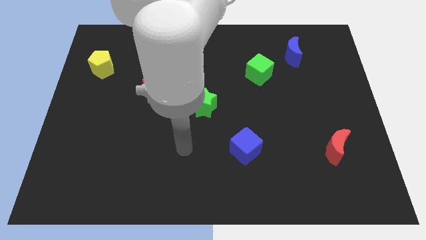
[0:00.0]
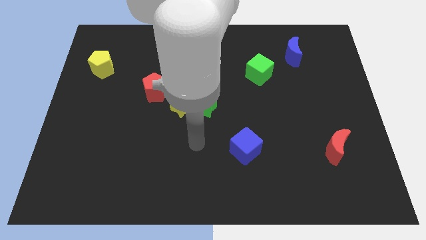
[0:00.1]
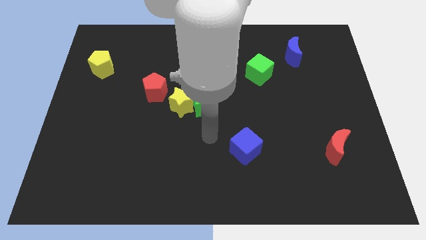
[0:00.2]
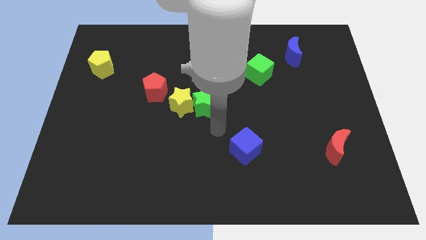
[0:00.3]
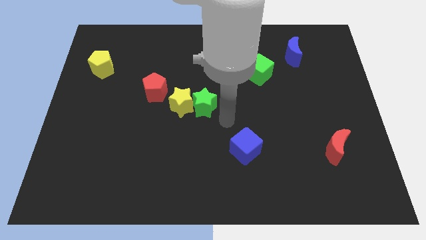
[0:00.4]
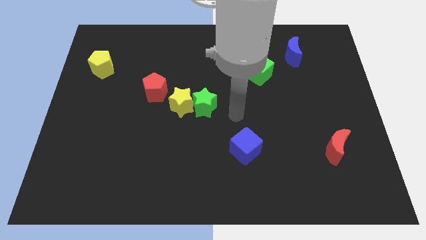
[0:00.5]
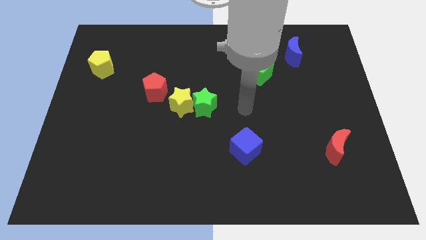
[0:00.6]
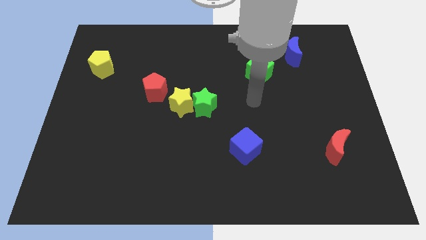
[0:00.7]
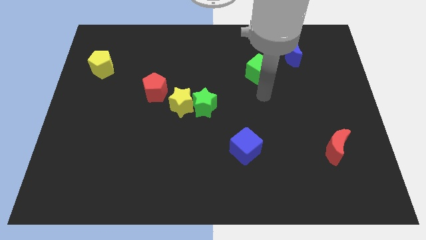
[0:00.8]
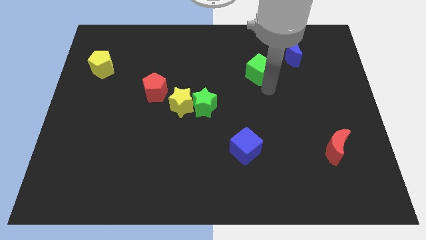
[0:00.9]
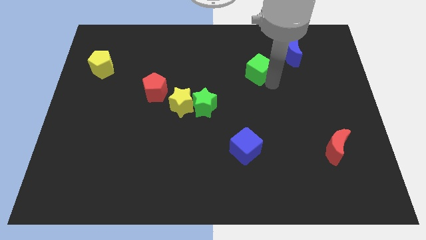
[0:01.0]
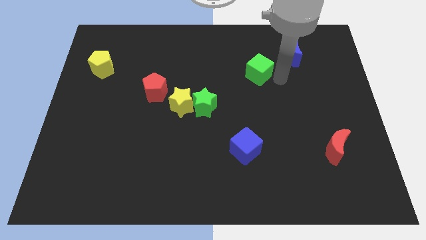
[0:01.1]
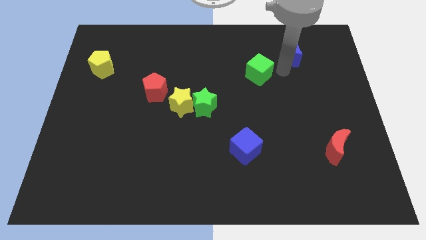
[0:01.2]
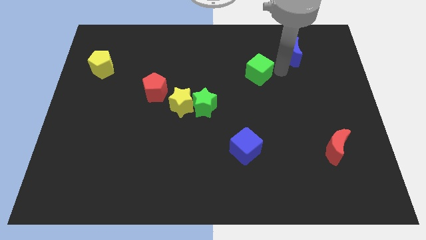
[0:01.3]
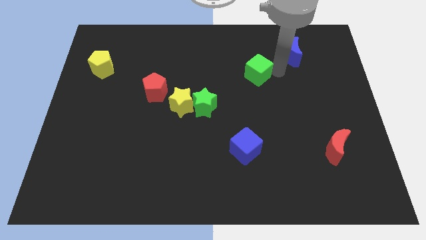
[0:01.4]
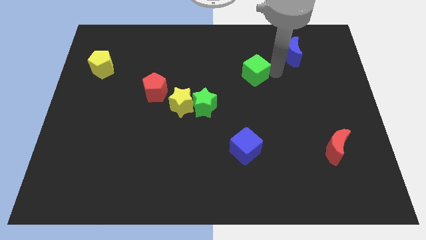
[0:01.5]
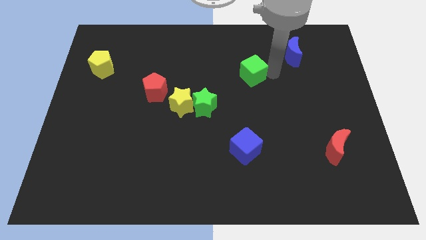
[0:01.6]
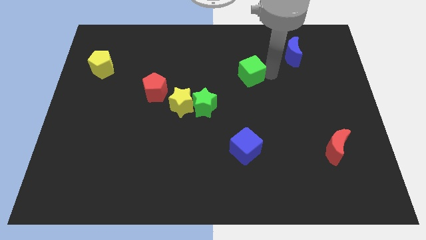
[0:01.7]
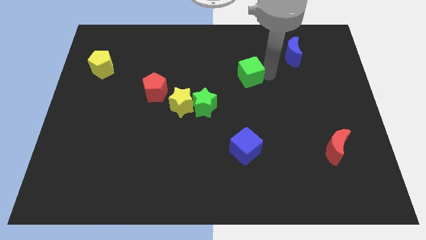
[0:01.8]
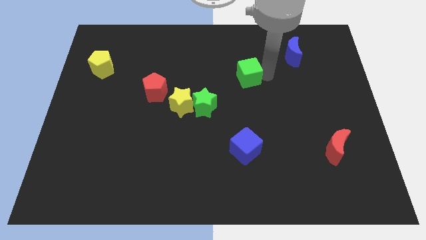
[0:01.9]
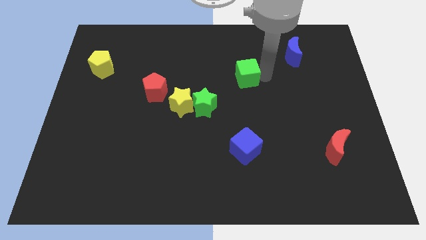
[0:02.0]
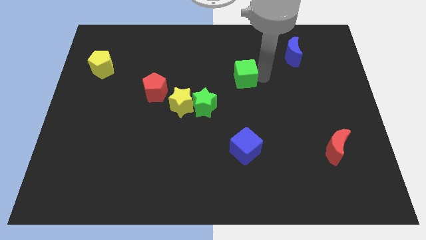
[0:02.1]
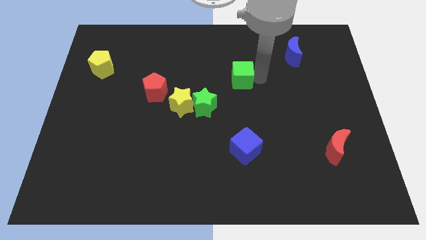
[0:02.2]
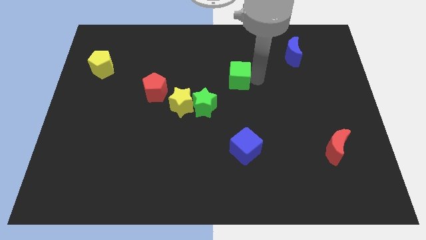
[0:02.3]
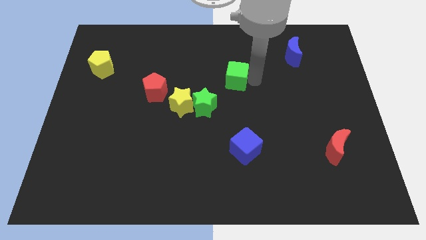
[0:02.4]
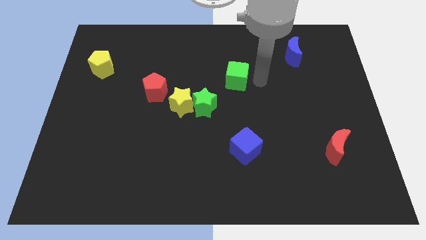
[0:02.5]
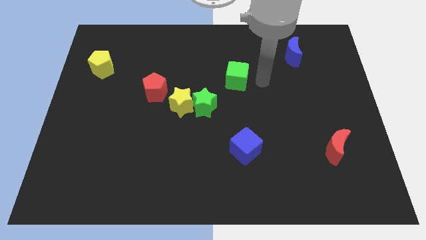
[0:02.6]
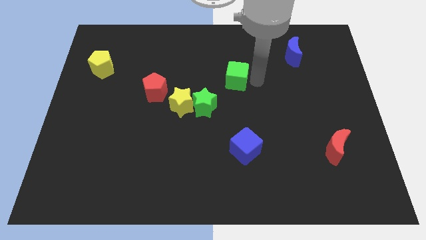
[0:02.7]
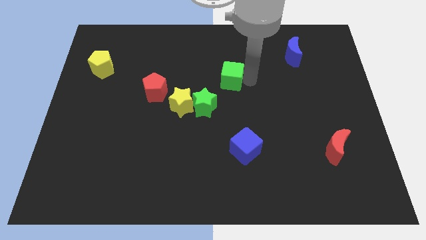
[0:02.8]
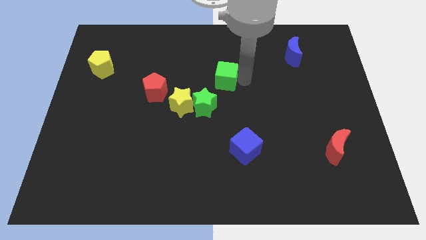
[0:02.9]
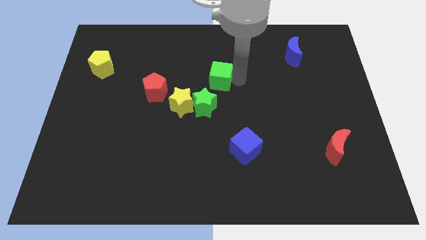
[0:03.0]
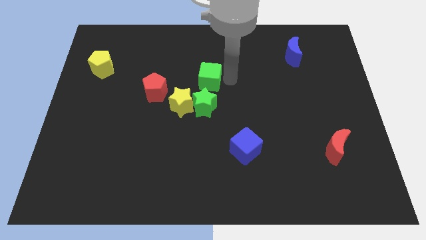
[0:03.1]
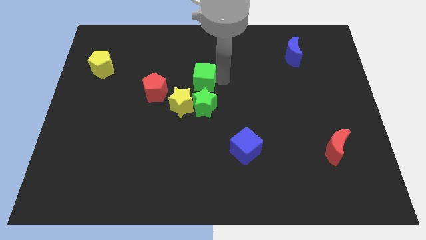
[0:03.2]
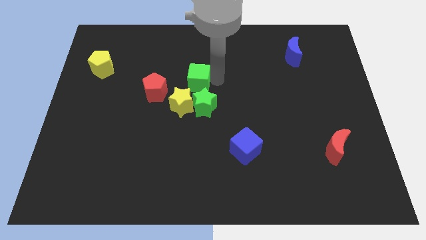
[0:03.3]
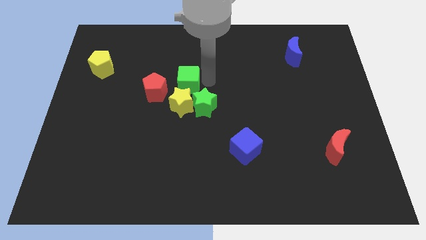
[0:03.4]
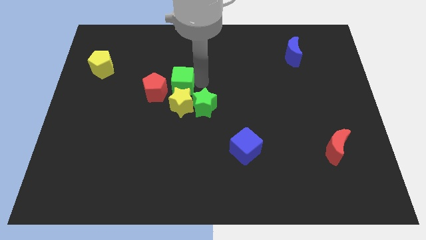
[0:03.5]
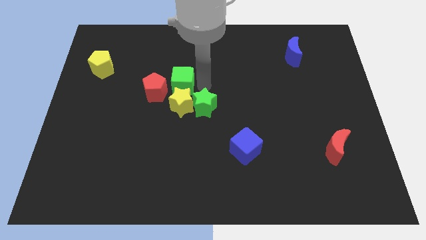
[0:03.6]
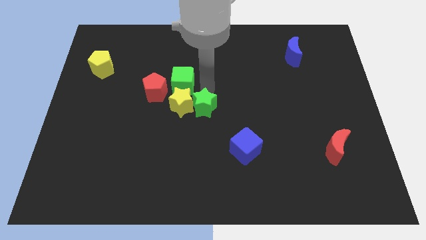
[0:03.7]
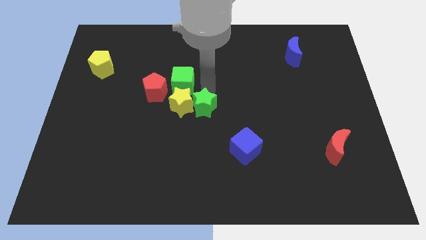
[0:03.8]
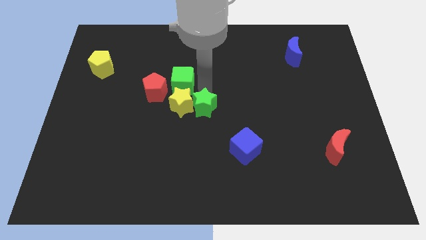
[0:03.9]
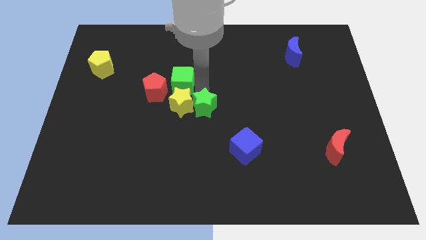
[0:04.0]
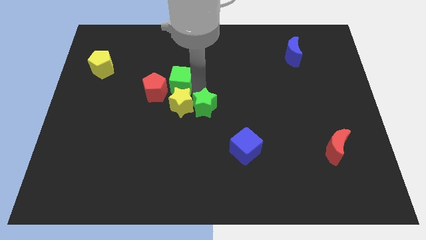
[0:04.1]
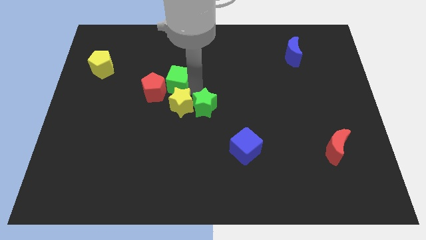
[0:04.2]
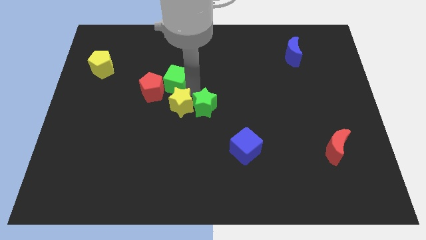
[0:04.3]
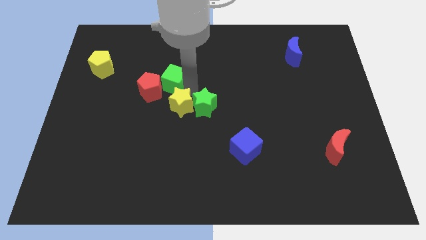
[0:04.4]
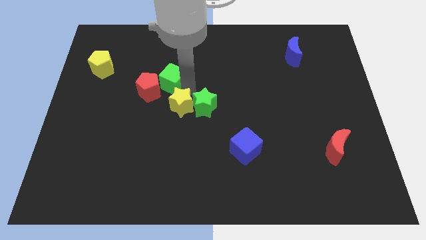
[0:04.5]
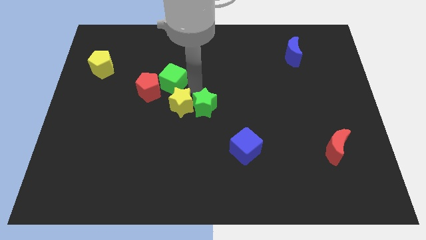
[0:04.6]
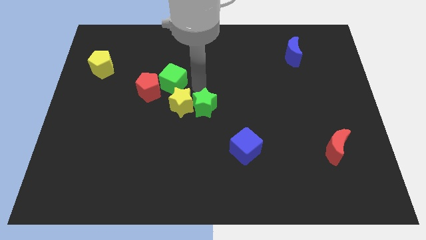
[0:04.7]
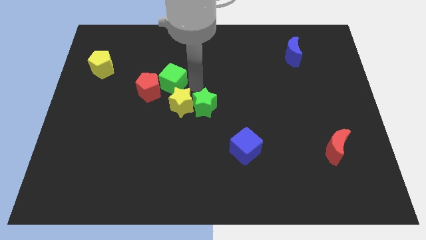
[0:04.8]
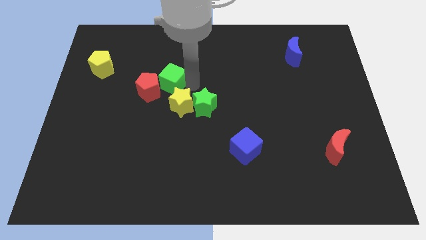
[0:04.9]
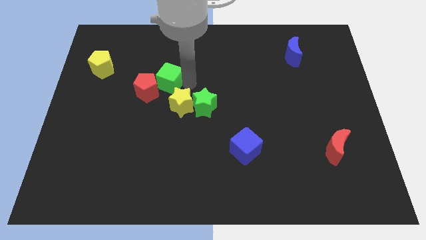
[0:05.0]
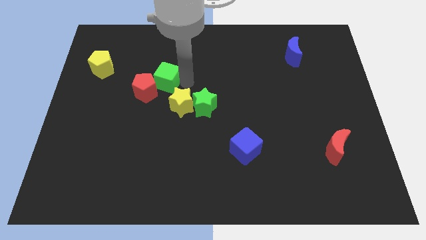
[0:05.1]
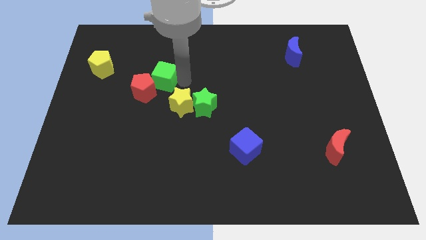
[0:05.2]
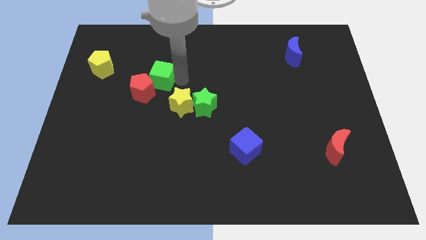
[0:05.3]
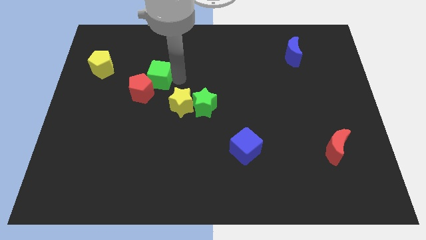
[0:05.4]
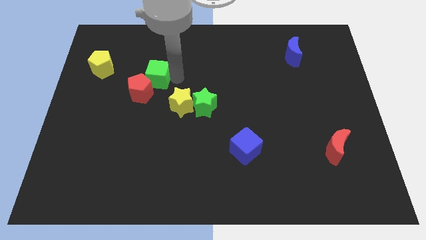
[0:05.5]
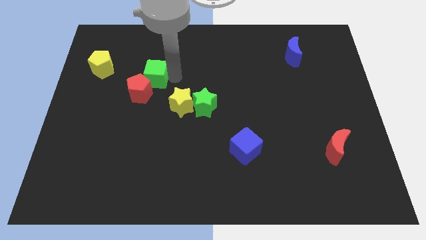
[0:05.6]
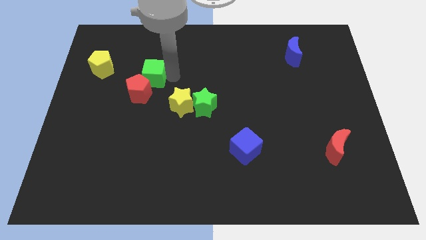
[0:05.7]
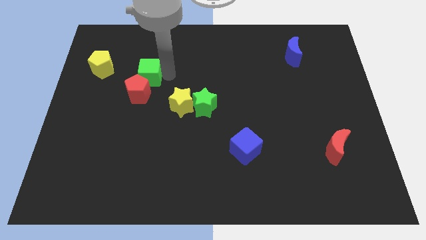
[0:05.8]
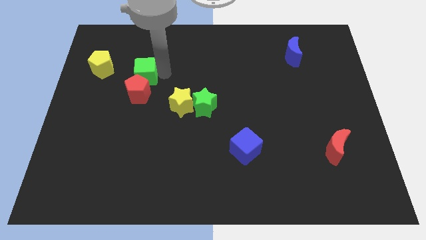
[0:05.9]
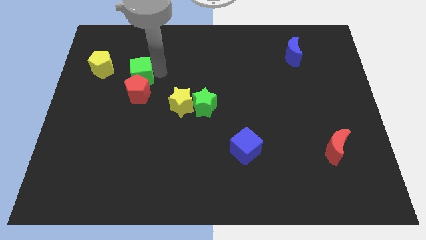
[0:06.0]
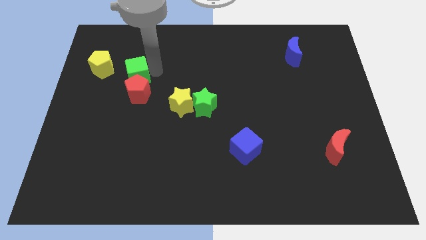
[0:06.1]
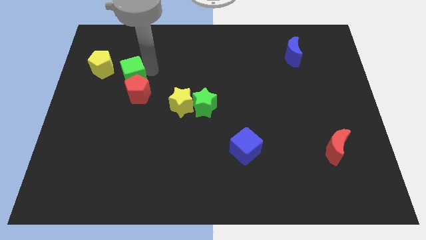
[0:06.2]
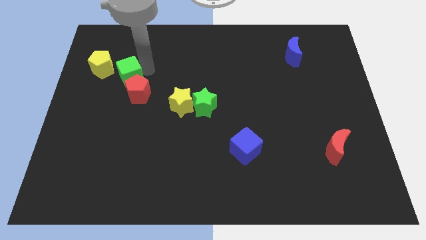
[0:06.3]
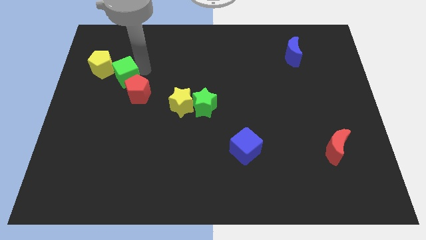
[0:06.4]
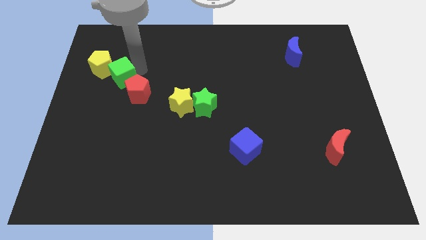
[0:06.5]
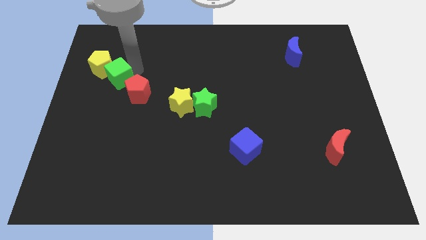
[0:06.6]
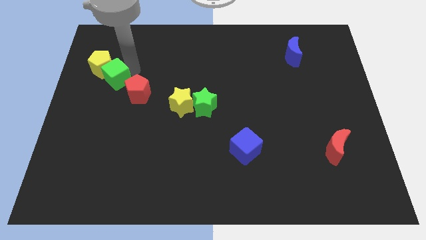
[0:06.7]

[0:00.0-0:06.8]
put the green cube to the left of the red pentagon
